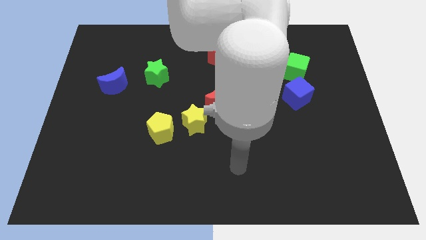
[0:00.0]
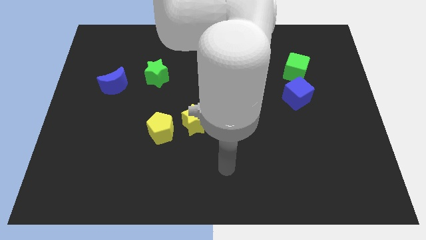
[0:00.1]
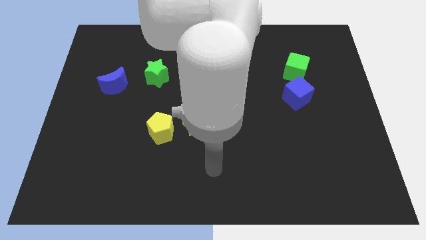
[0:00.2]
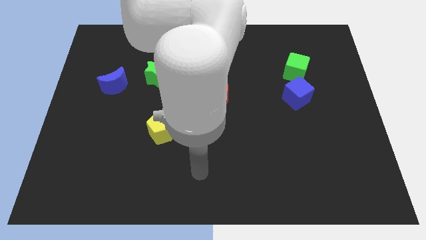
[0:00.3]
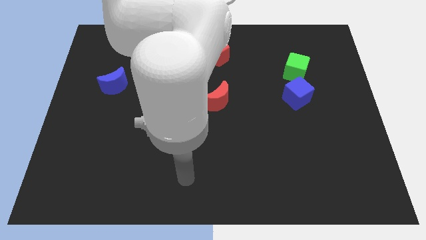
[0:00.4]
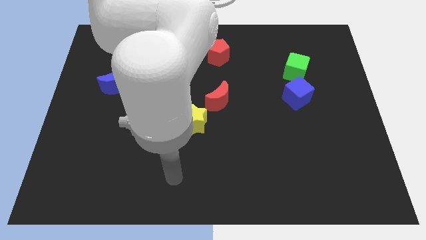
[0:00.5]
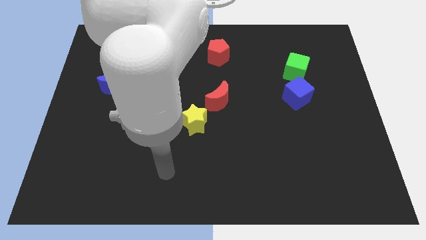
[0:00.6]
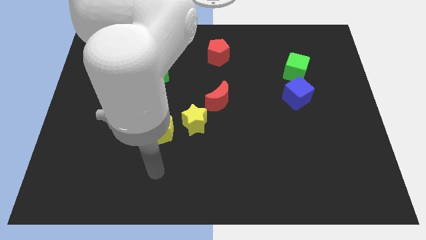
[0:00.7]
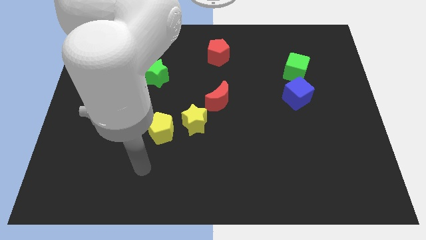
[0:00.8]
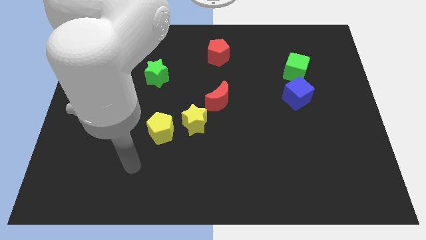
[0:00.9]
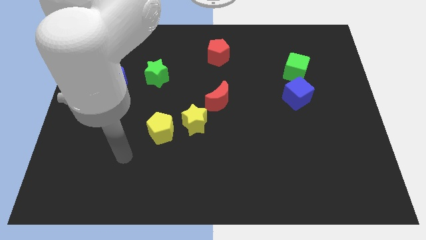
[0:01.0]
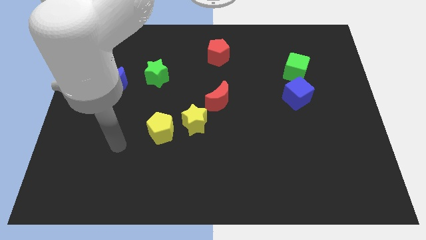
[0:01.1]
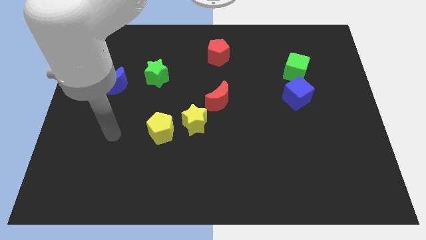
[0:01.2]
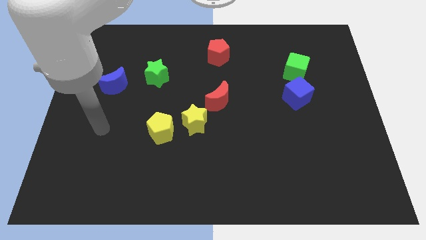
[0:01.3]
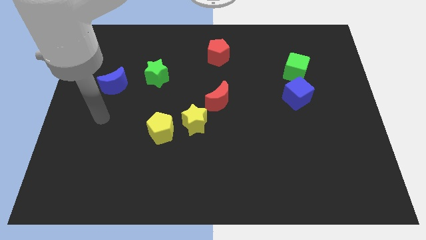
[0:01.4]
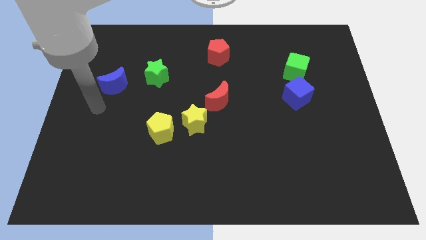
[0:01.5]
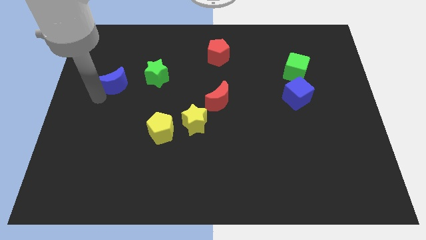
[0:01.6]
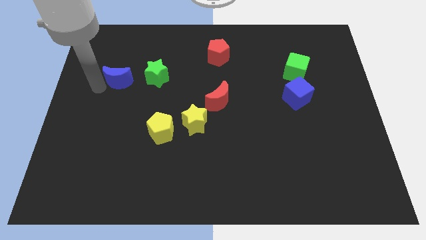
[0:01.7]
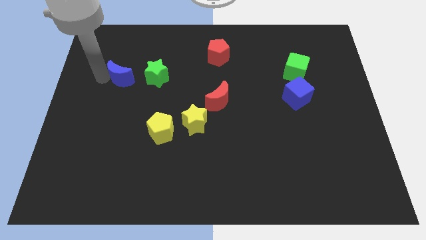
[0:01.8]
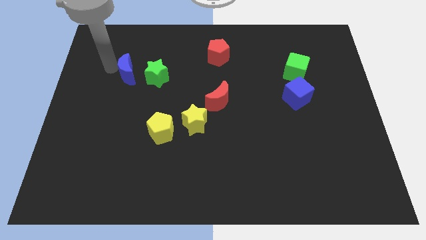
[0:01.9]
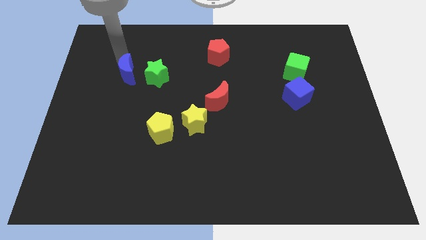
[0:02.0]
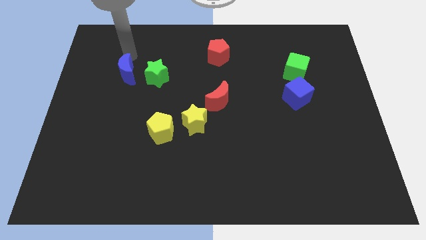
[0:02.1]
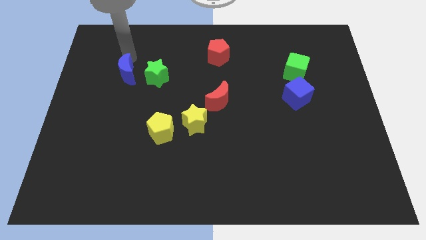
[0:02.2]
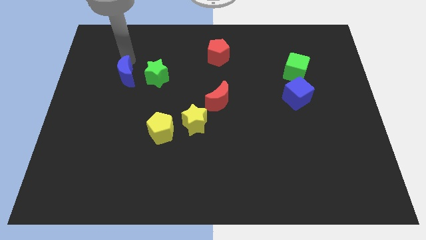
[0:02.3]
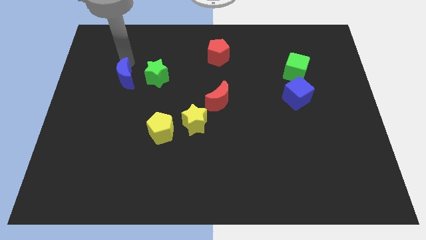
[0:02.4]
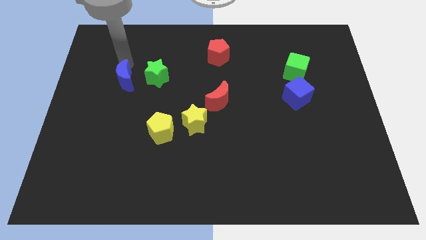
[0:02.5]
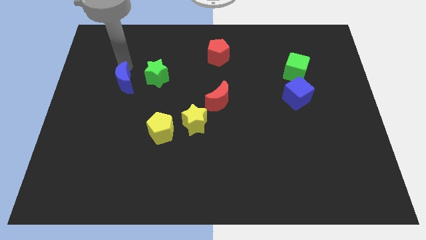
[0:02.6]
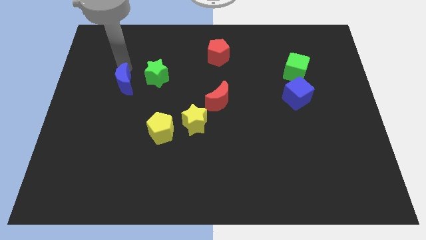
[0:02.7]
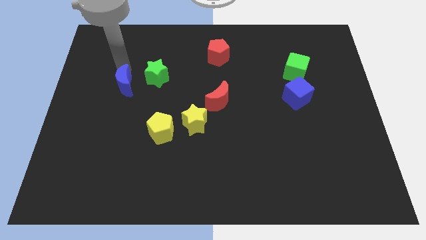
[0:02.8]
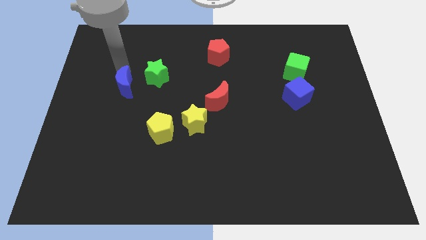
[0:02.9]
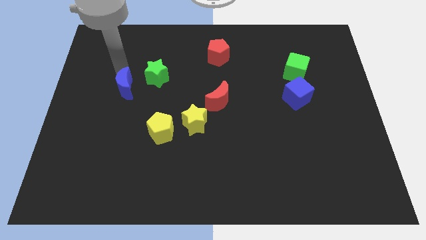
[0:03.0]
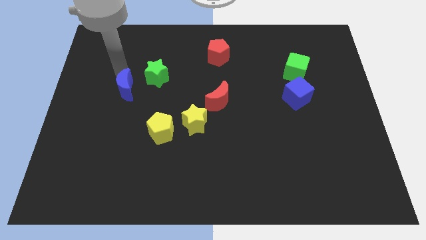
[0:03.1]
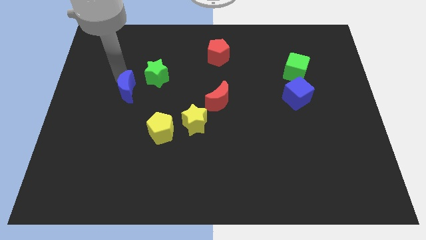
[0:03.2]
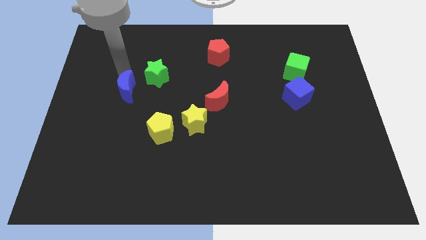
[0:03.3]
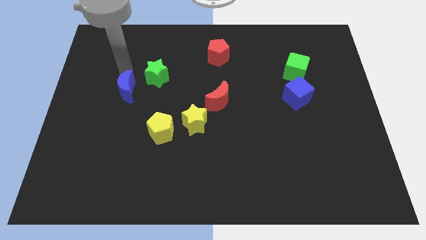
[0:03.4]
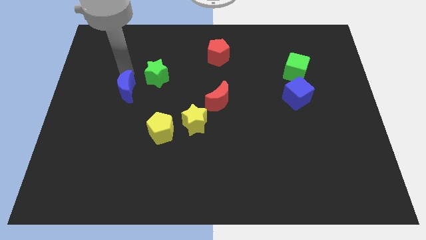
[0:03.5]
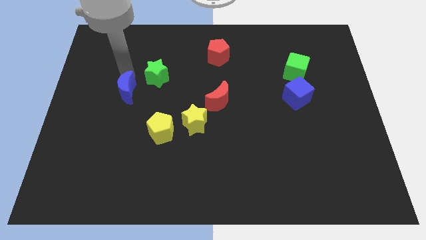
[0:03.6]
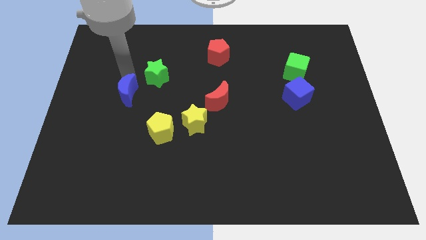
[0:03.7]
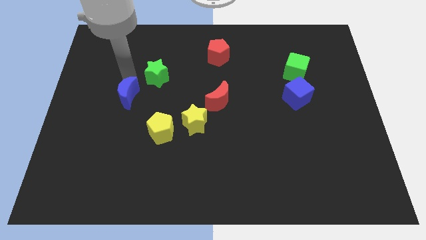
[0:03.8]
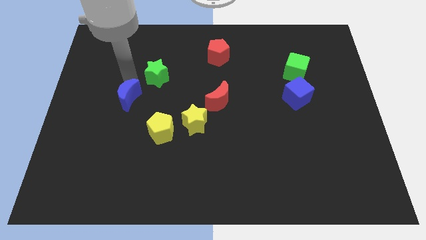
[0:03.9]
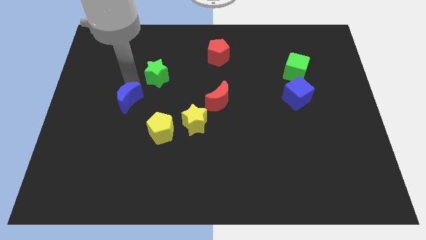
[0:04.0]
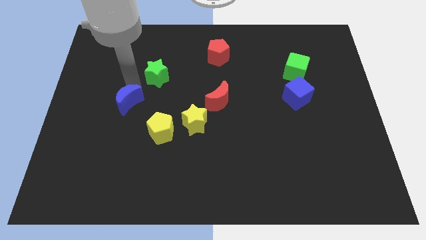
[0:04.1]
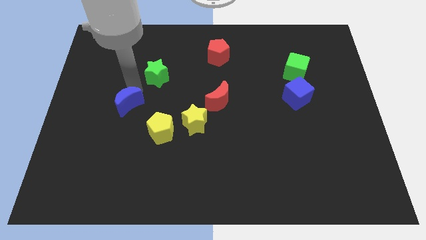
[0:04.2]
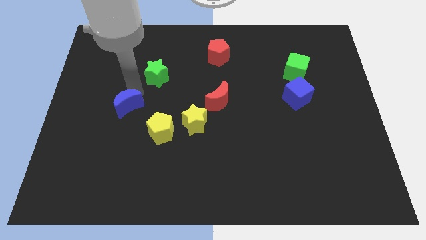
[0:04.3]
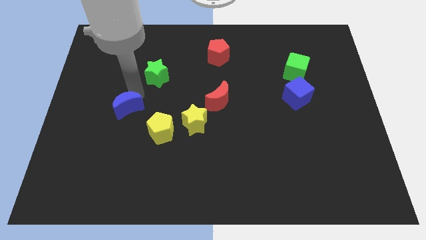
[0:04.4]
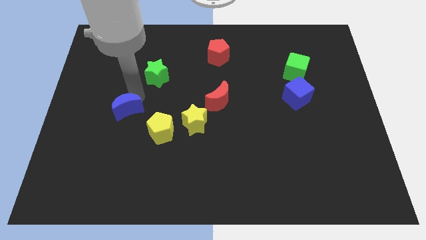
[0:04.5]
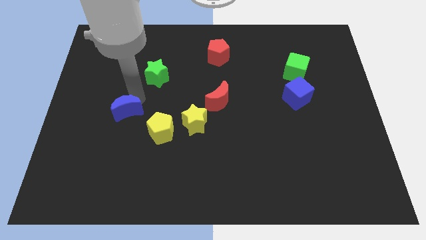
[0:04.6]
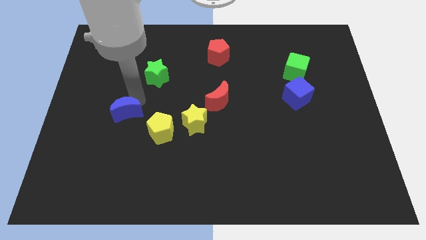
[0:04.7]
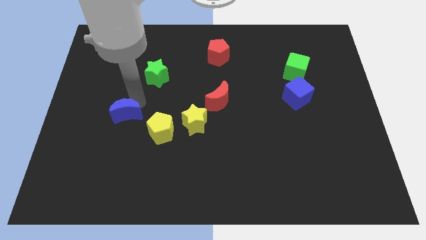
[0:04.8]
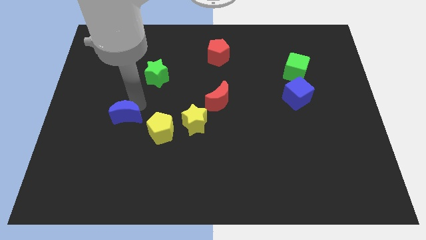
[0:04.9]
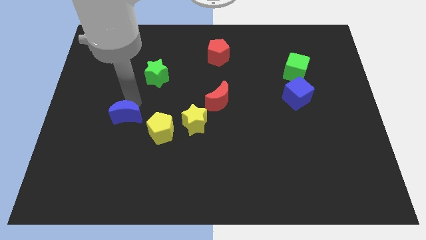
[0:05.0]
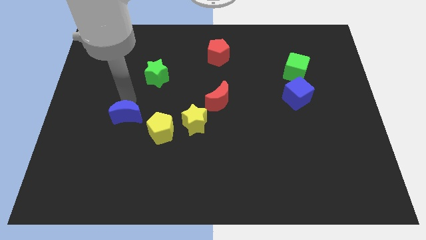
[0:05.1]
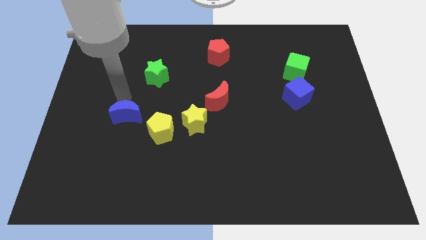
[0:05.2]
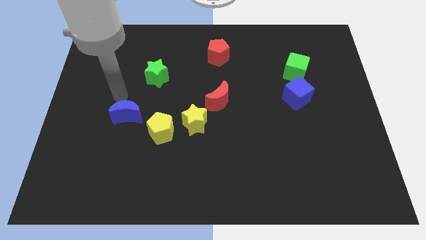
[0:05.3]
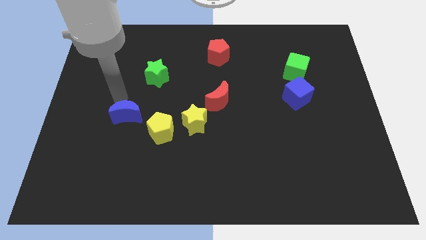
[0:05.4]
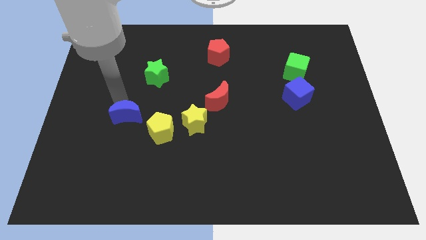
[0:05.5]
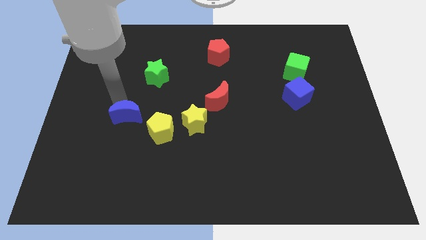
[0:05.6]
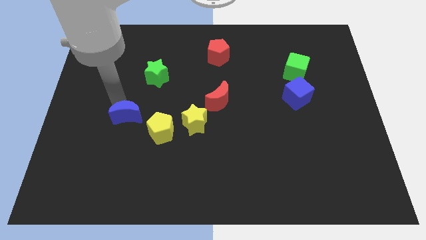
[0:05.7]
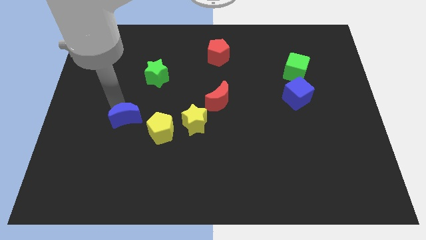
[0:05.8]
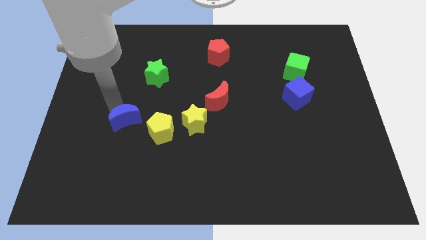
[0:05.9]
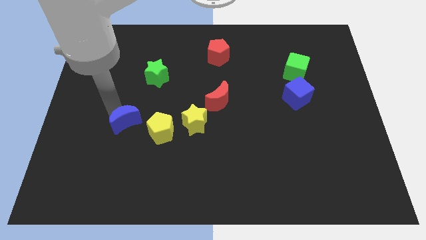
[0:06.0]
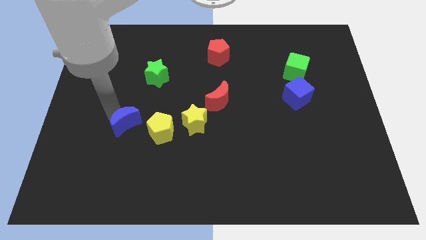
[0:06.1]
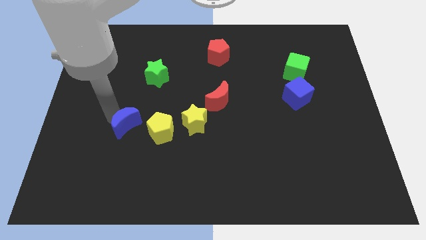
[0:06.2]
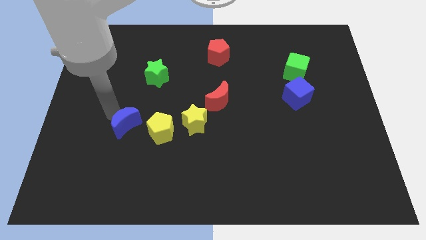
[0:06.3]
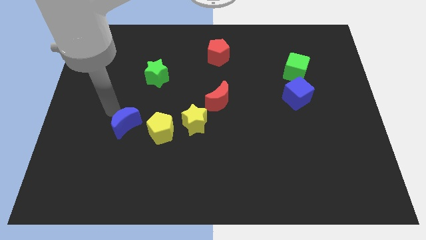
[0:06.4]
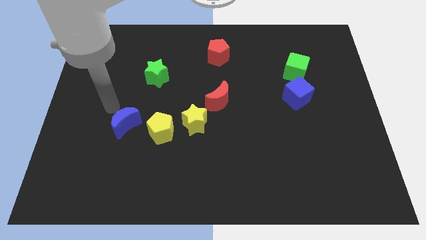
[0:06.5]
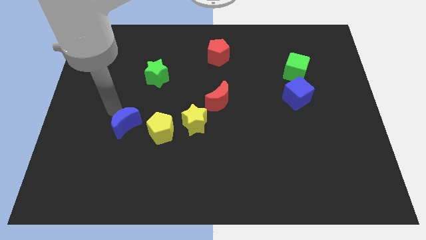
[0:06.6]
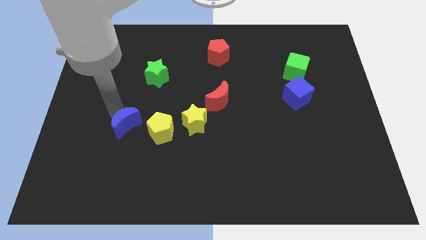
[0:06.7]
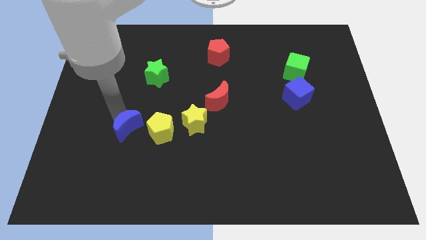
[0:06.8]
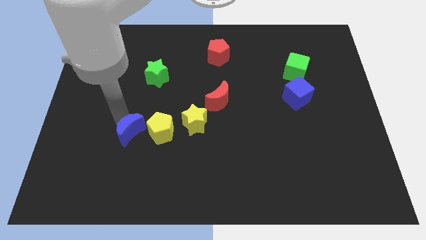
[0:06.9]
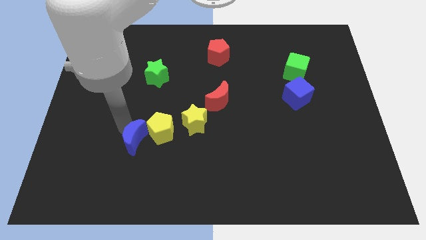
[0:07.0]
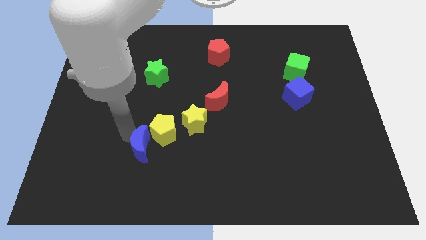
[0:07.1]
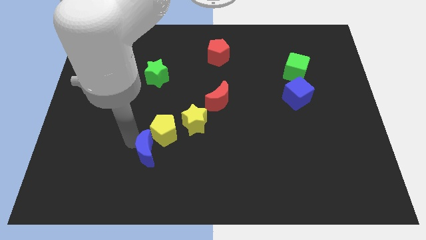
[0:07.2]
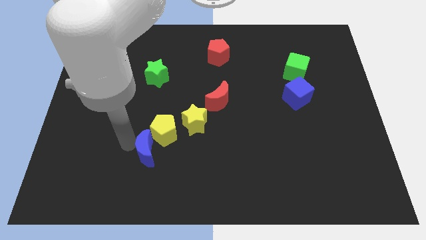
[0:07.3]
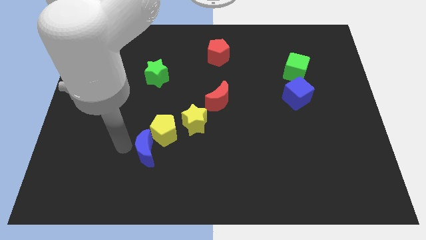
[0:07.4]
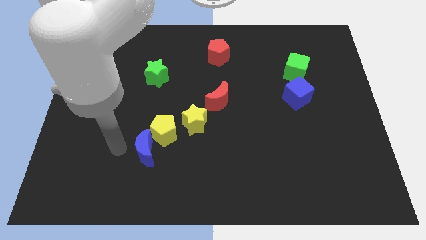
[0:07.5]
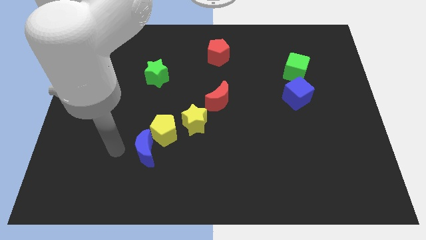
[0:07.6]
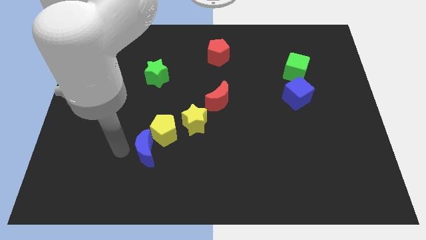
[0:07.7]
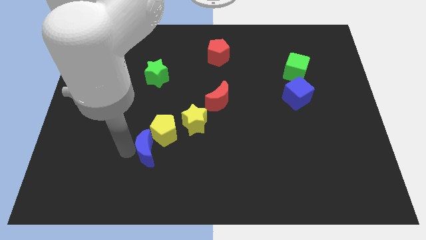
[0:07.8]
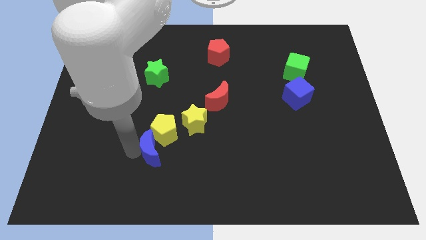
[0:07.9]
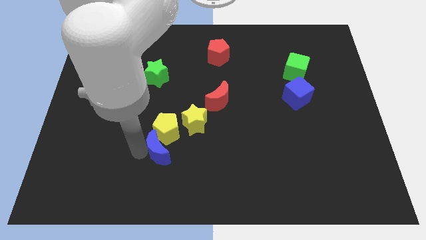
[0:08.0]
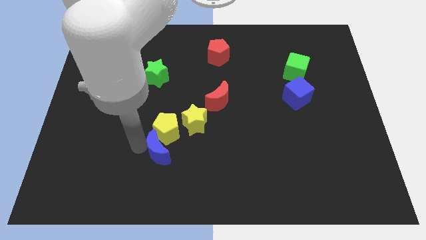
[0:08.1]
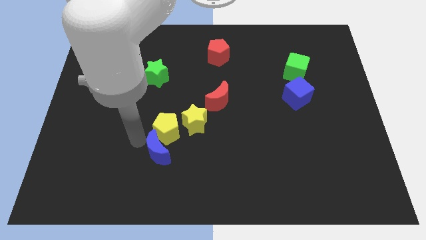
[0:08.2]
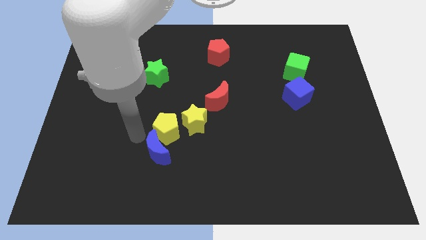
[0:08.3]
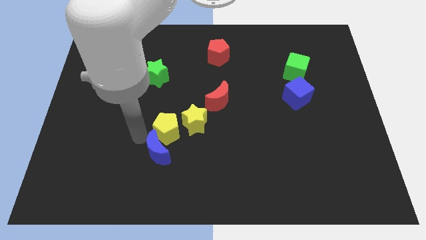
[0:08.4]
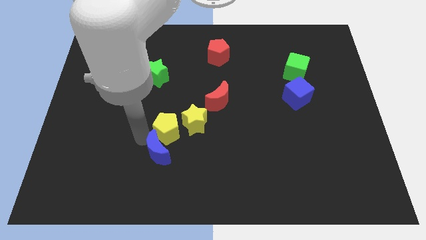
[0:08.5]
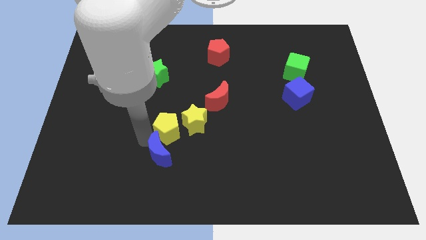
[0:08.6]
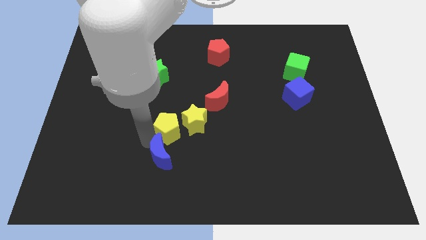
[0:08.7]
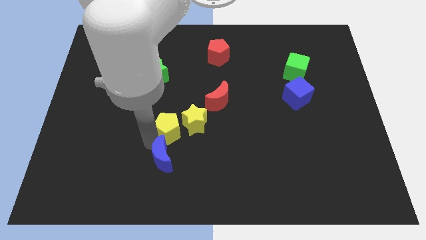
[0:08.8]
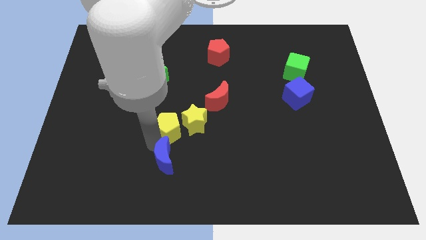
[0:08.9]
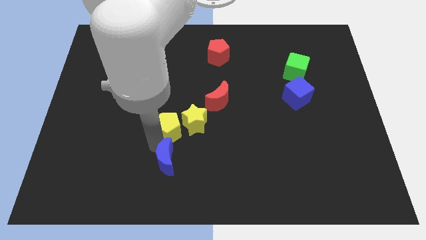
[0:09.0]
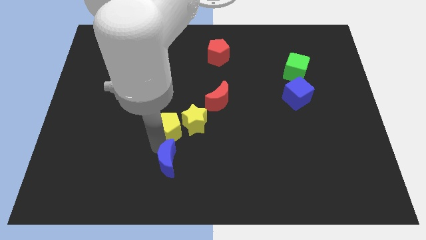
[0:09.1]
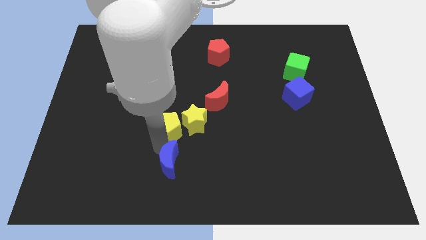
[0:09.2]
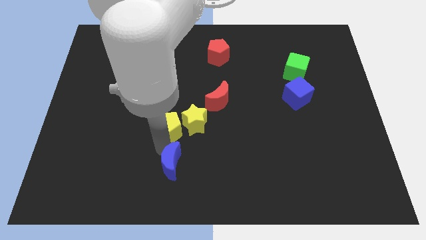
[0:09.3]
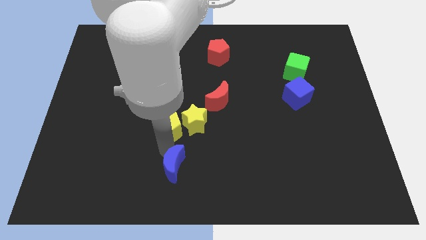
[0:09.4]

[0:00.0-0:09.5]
slide the blue moon to the bottom side
